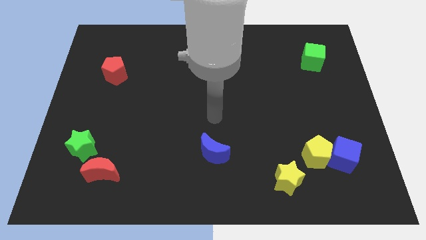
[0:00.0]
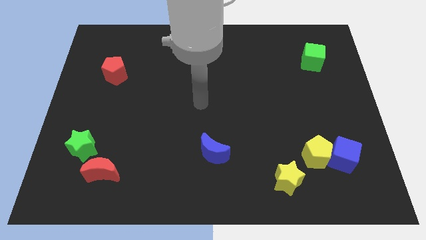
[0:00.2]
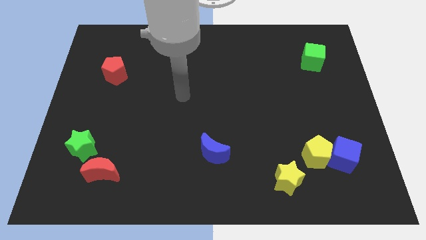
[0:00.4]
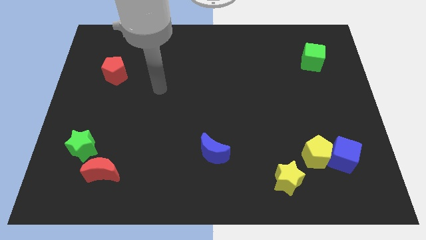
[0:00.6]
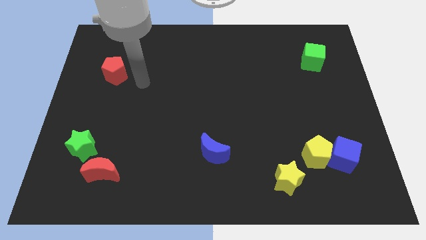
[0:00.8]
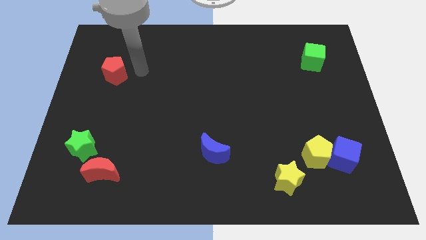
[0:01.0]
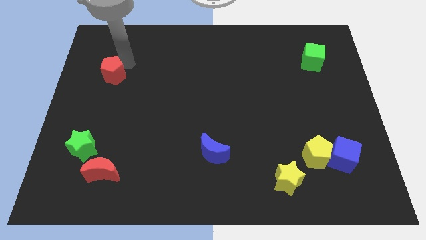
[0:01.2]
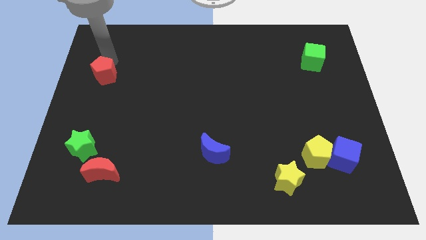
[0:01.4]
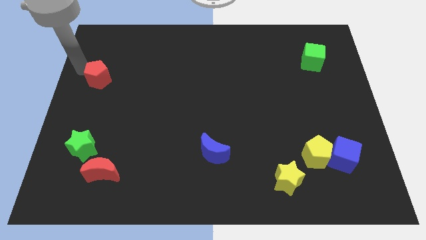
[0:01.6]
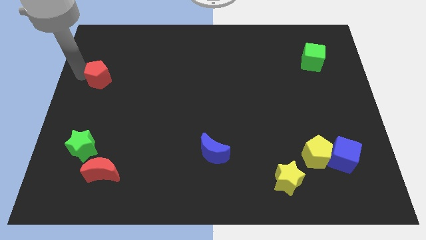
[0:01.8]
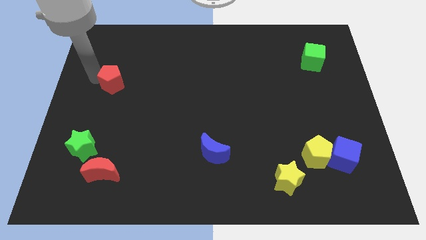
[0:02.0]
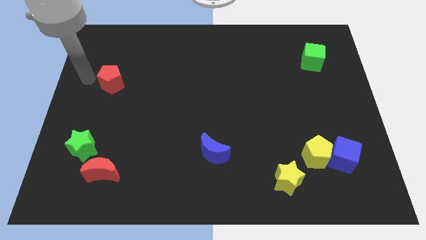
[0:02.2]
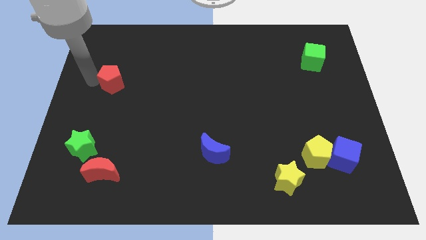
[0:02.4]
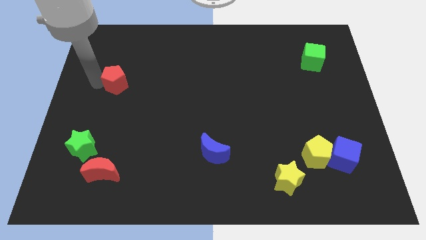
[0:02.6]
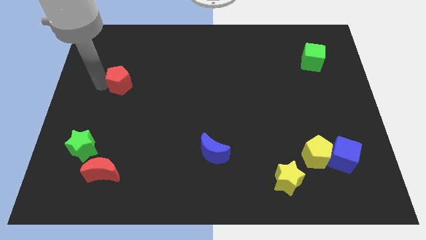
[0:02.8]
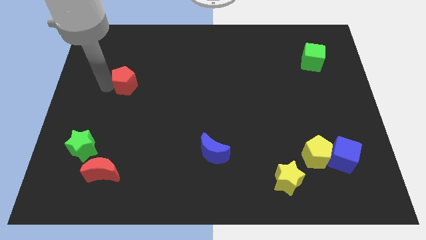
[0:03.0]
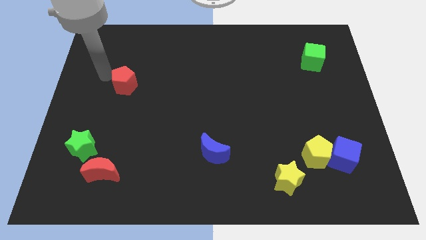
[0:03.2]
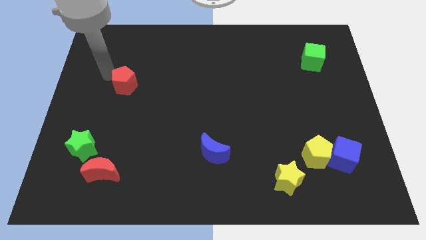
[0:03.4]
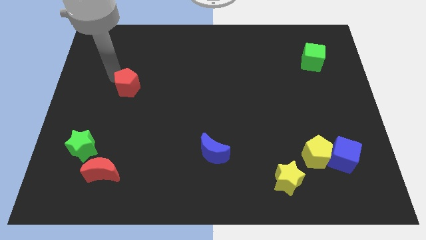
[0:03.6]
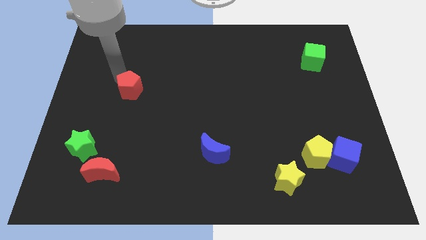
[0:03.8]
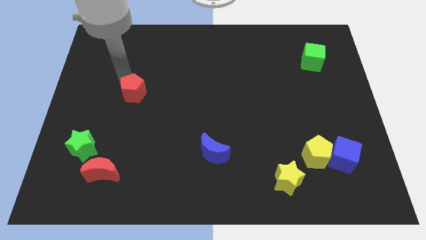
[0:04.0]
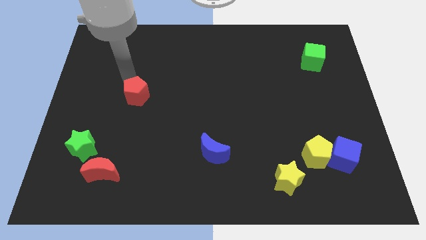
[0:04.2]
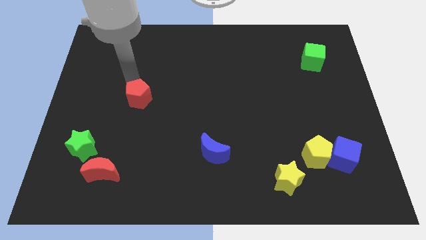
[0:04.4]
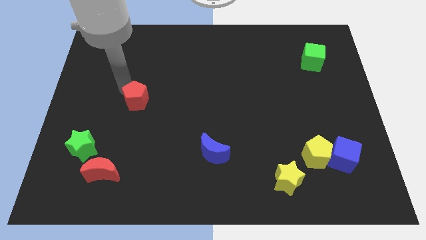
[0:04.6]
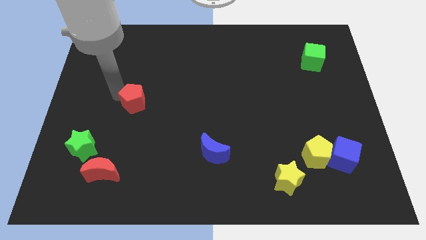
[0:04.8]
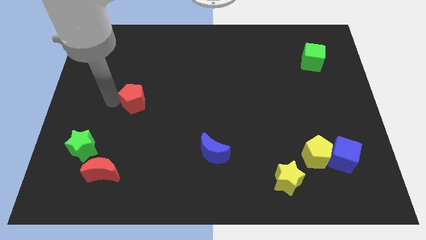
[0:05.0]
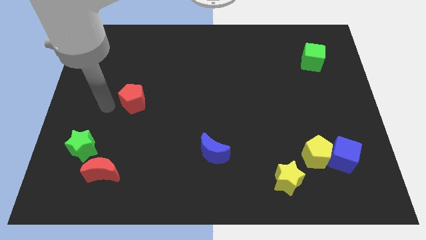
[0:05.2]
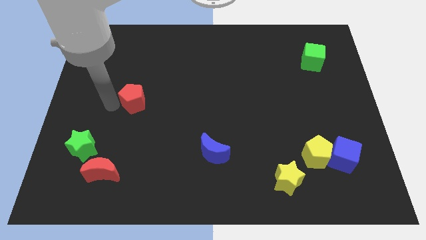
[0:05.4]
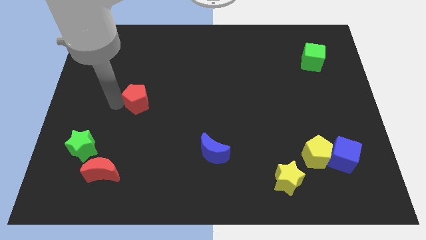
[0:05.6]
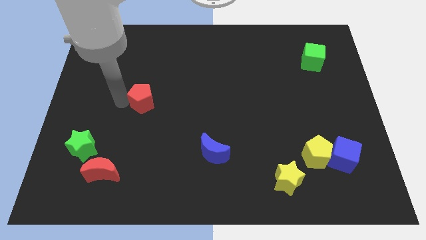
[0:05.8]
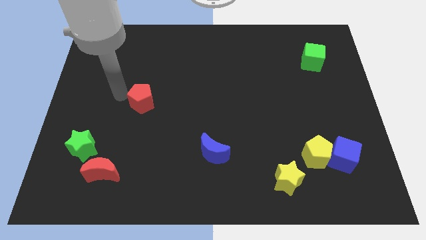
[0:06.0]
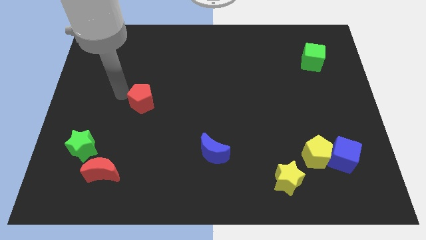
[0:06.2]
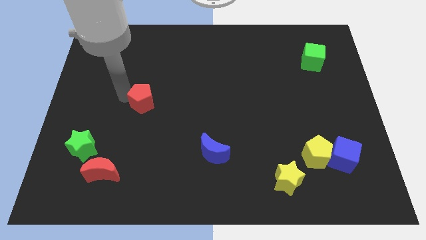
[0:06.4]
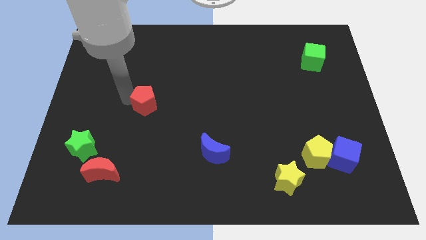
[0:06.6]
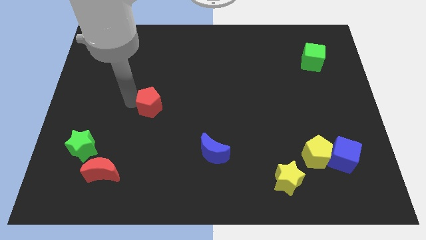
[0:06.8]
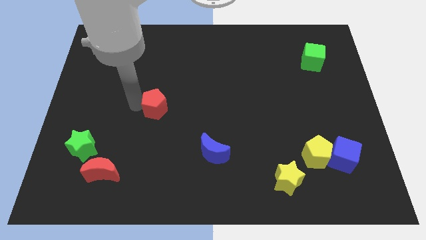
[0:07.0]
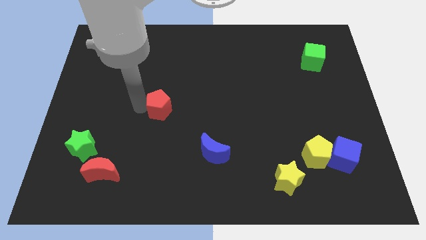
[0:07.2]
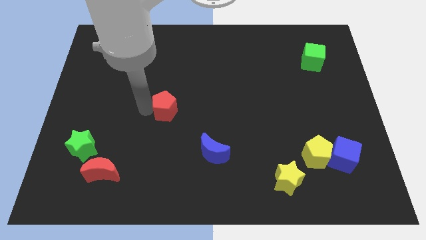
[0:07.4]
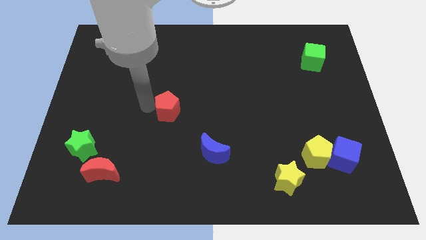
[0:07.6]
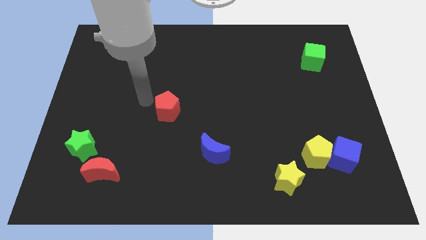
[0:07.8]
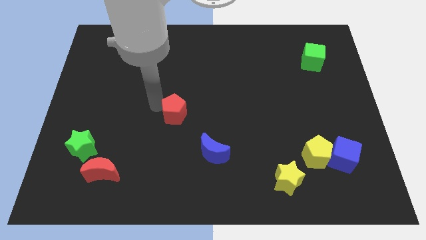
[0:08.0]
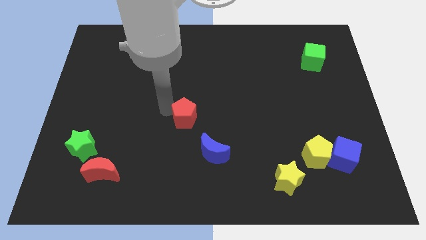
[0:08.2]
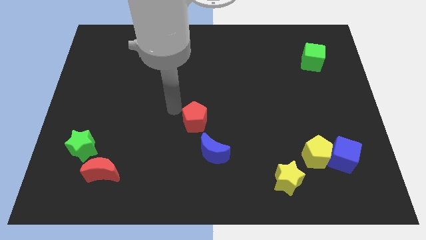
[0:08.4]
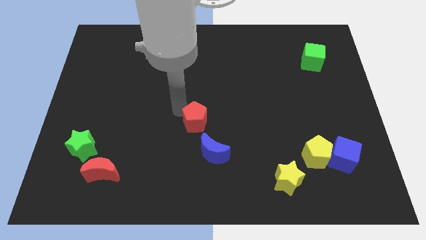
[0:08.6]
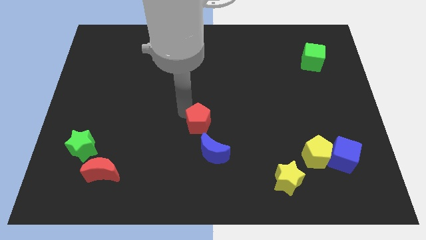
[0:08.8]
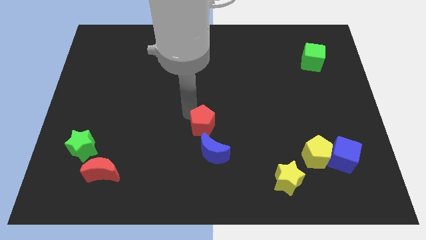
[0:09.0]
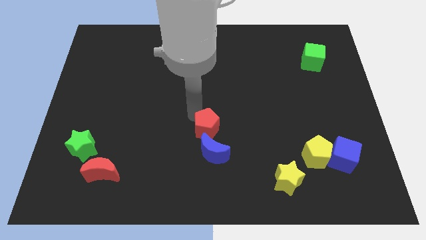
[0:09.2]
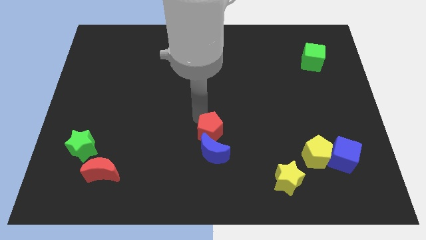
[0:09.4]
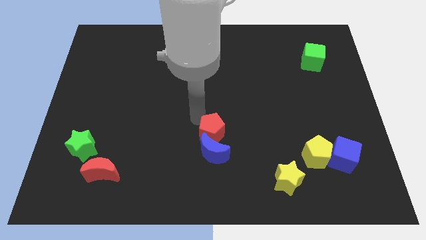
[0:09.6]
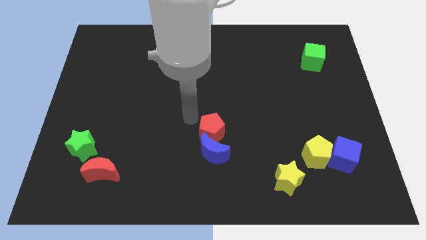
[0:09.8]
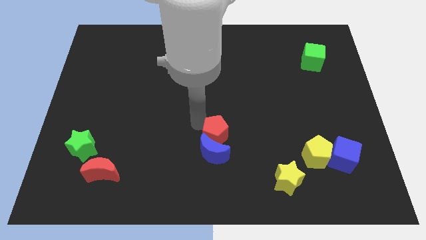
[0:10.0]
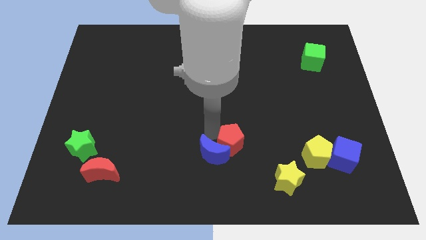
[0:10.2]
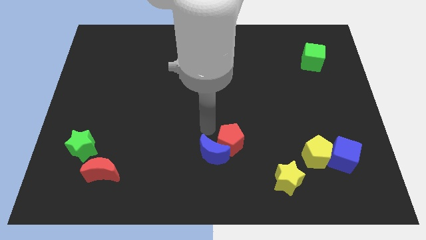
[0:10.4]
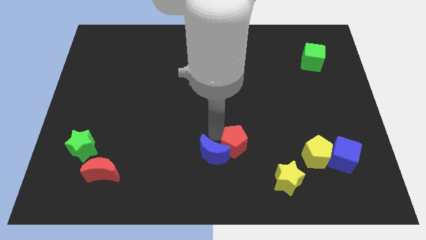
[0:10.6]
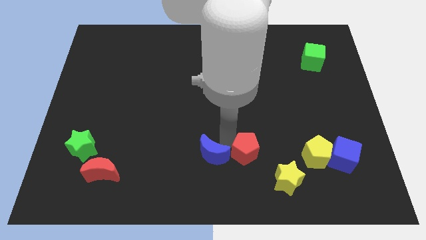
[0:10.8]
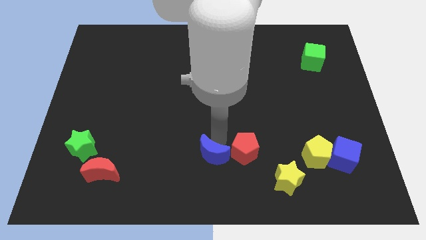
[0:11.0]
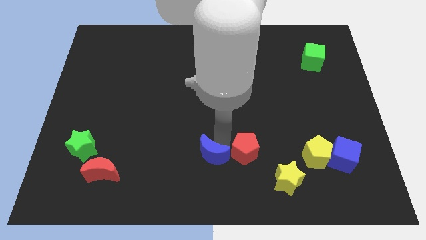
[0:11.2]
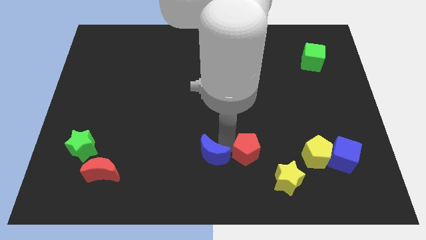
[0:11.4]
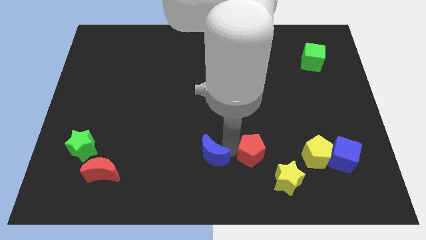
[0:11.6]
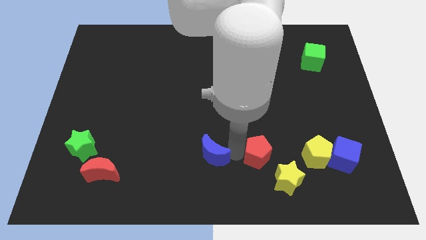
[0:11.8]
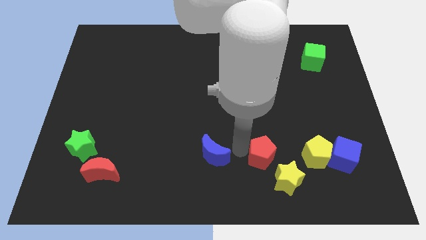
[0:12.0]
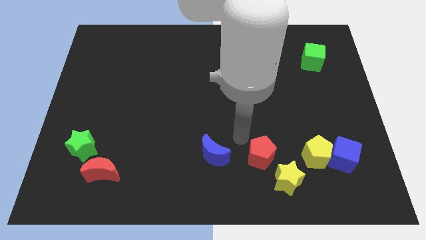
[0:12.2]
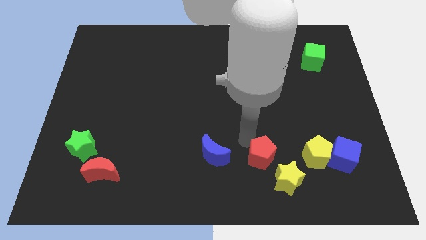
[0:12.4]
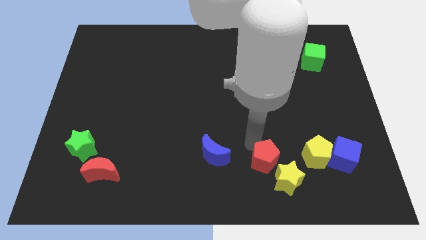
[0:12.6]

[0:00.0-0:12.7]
put the red pentagon to the yellow star

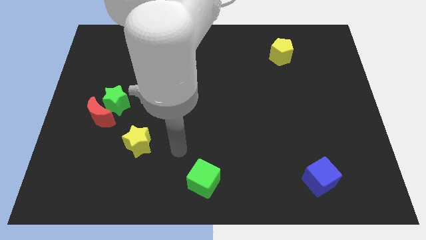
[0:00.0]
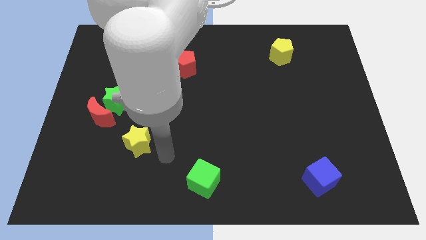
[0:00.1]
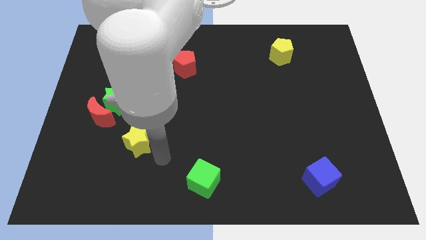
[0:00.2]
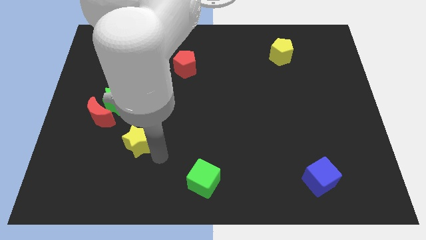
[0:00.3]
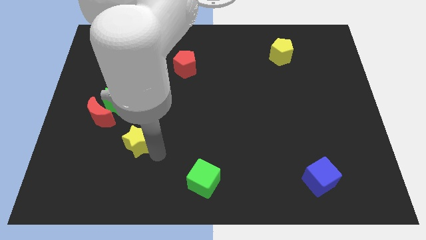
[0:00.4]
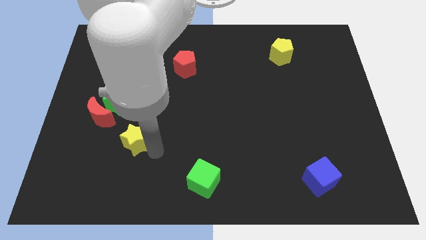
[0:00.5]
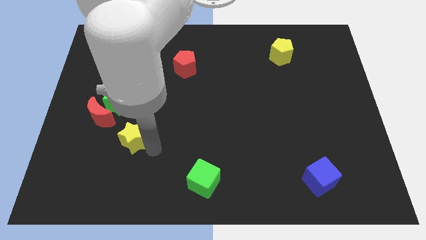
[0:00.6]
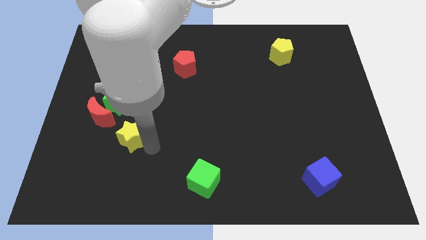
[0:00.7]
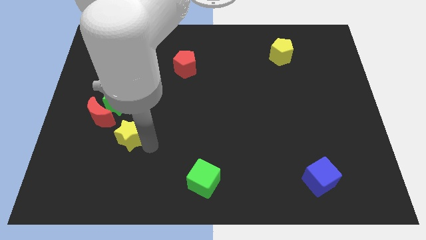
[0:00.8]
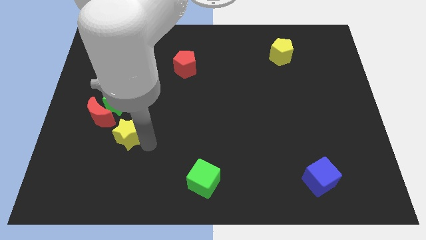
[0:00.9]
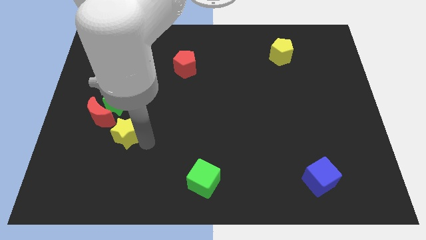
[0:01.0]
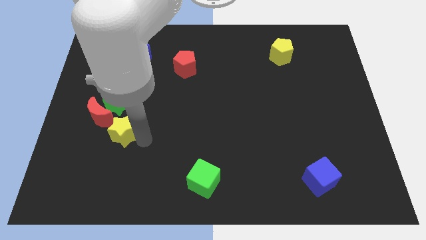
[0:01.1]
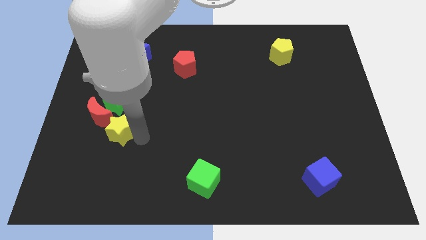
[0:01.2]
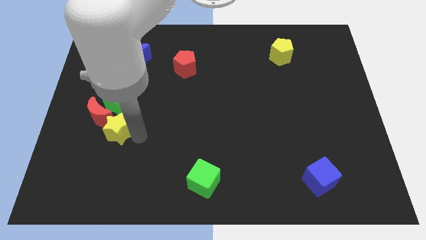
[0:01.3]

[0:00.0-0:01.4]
push the yellow star towards the red moon
